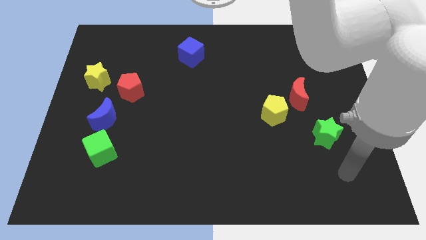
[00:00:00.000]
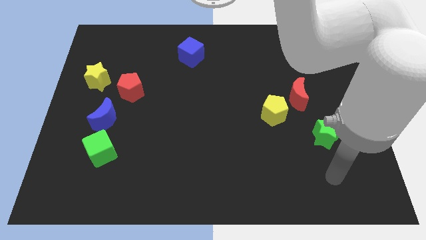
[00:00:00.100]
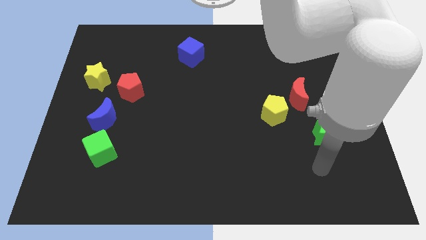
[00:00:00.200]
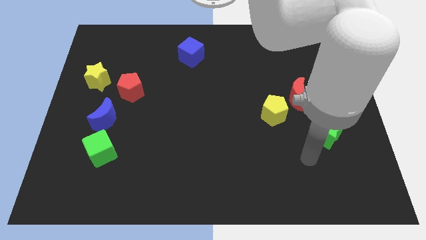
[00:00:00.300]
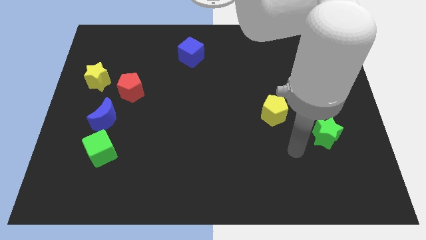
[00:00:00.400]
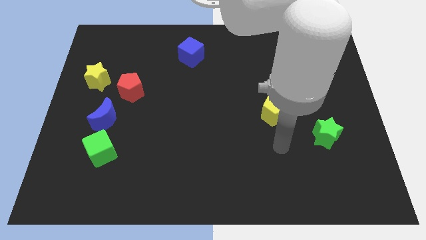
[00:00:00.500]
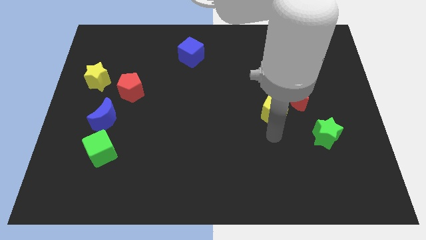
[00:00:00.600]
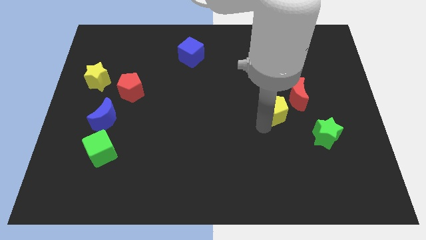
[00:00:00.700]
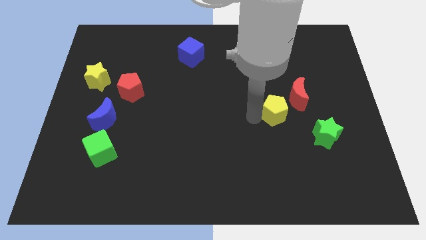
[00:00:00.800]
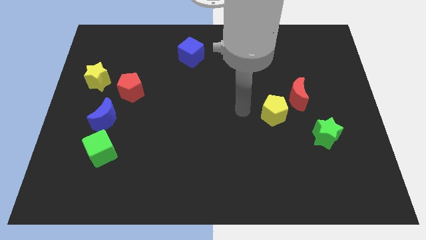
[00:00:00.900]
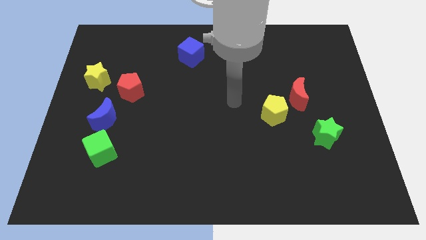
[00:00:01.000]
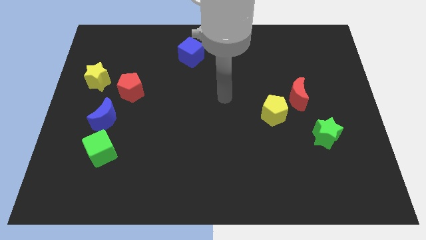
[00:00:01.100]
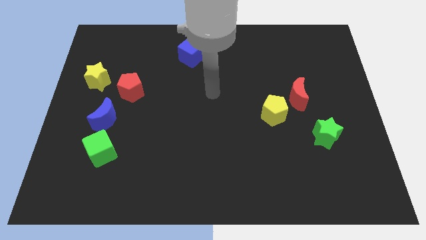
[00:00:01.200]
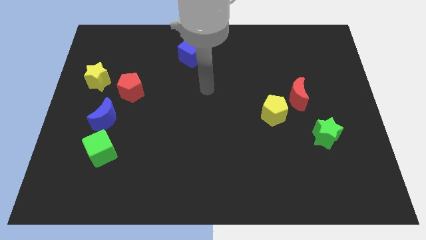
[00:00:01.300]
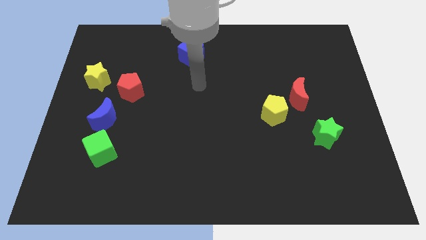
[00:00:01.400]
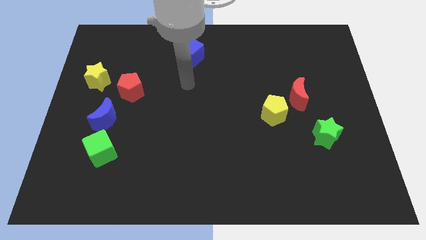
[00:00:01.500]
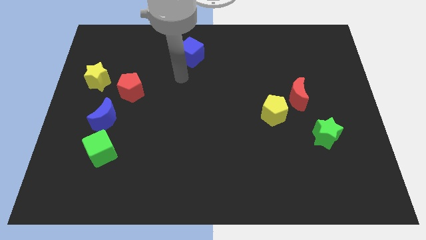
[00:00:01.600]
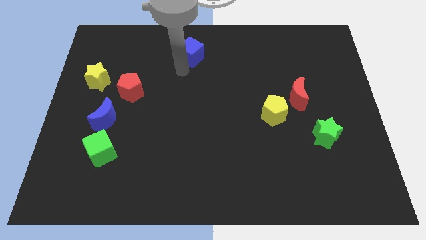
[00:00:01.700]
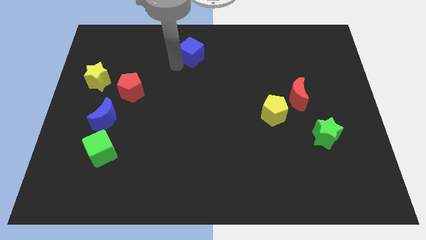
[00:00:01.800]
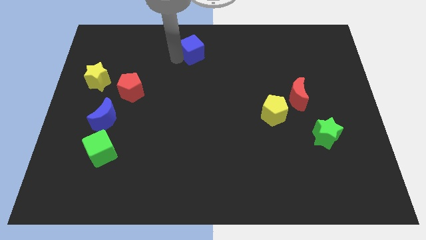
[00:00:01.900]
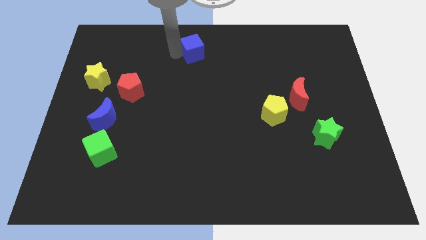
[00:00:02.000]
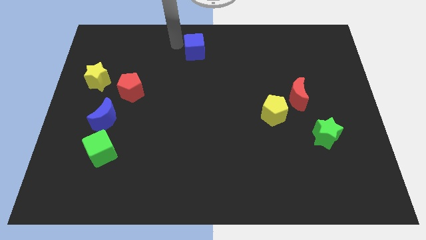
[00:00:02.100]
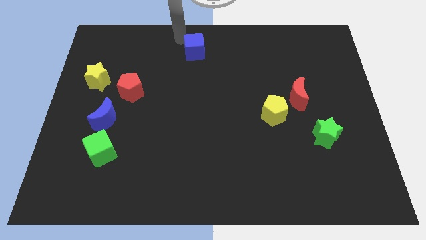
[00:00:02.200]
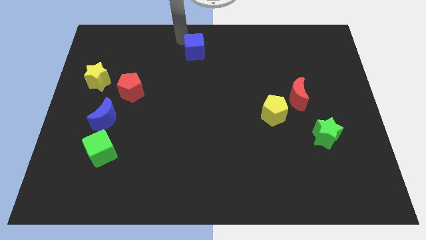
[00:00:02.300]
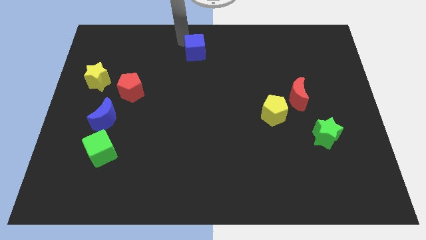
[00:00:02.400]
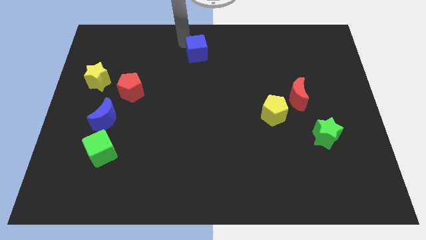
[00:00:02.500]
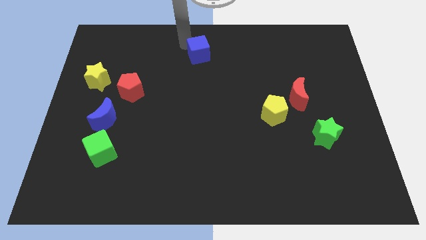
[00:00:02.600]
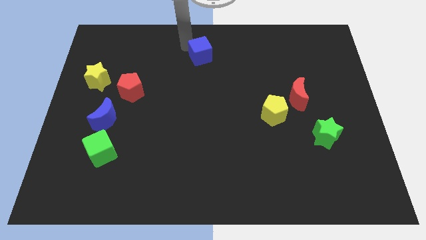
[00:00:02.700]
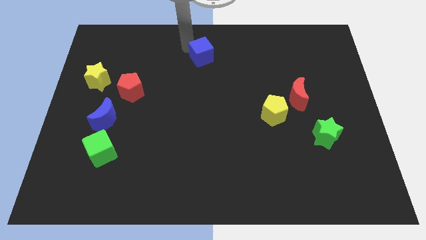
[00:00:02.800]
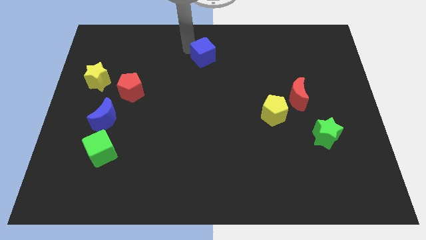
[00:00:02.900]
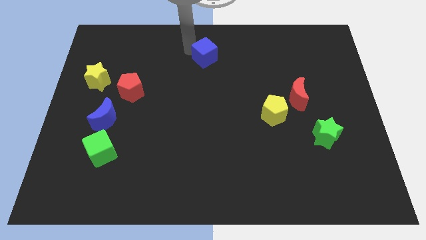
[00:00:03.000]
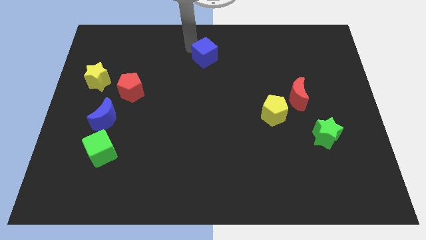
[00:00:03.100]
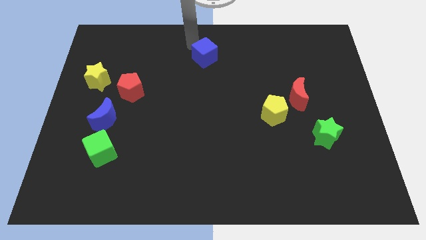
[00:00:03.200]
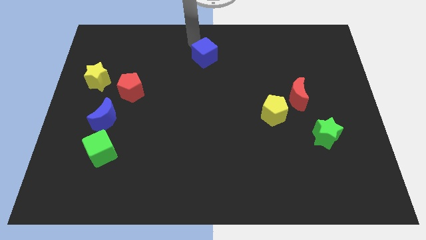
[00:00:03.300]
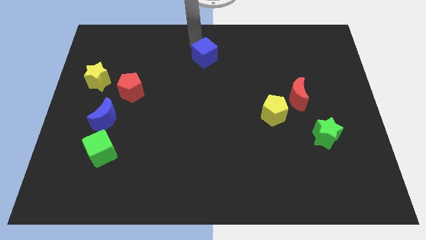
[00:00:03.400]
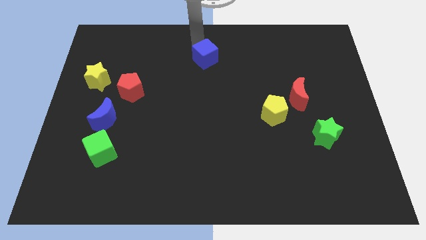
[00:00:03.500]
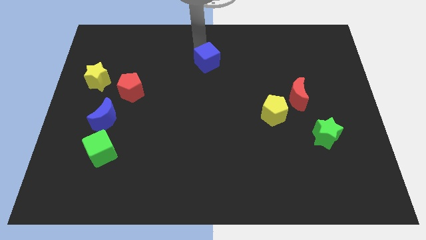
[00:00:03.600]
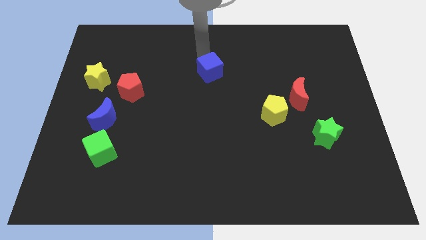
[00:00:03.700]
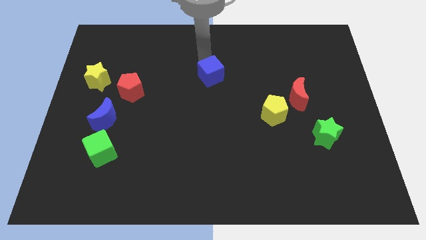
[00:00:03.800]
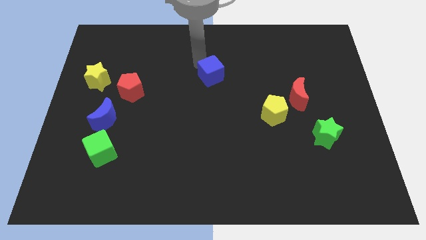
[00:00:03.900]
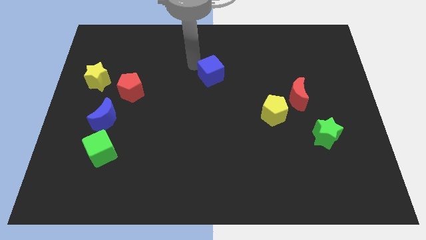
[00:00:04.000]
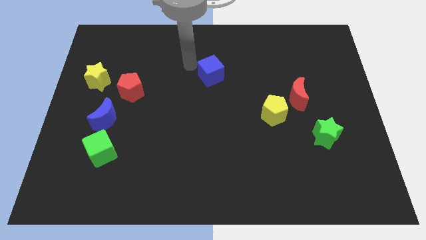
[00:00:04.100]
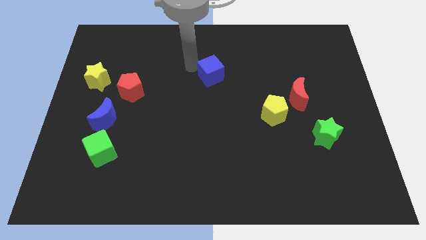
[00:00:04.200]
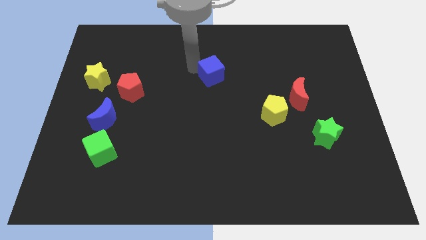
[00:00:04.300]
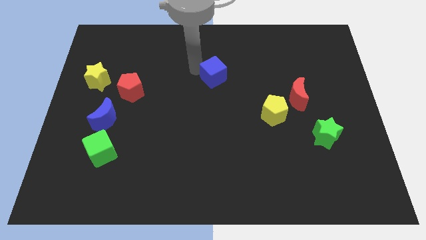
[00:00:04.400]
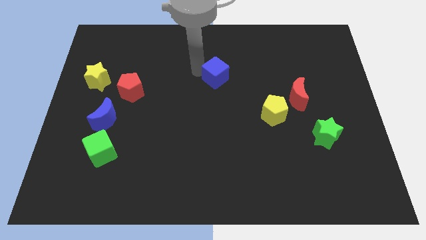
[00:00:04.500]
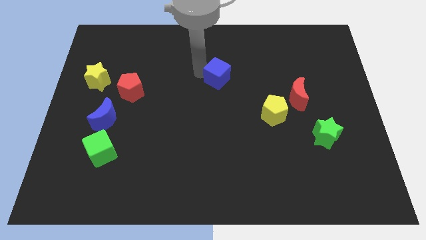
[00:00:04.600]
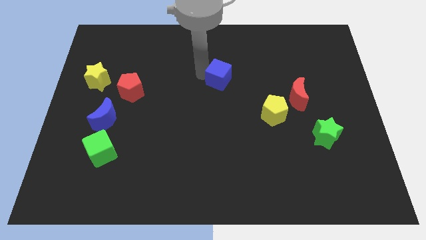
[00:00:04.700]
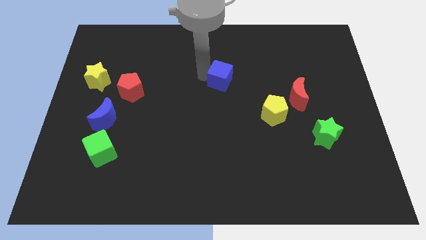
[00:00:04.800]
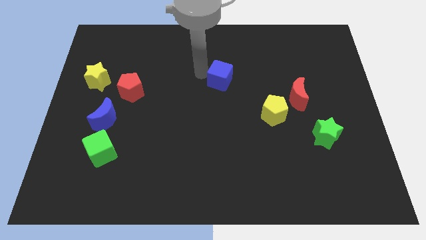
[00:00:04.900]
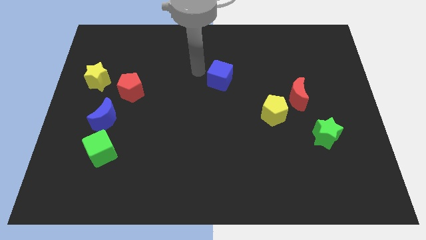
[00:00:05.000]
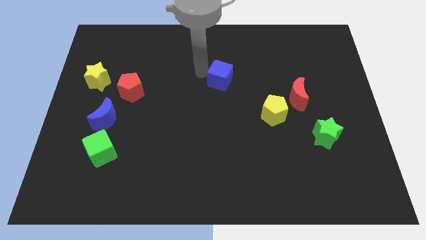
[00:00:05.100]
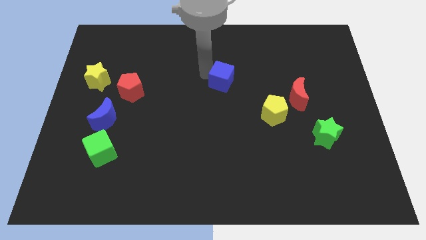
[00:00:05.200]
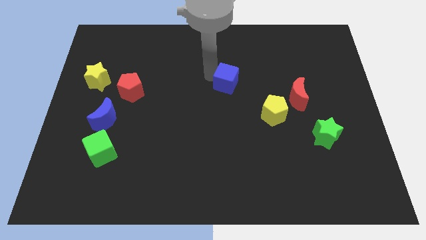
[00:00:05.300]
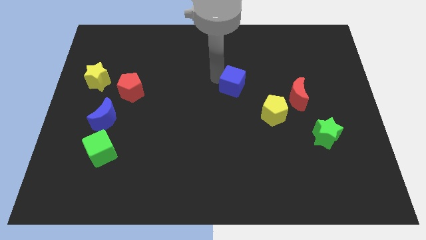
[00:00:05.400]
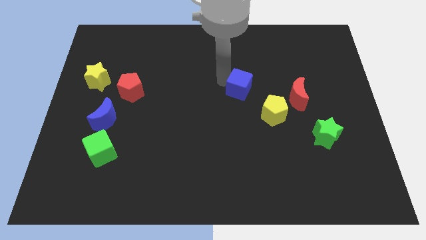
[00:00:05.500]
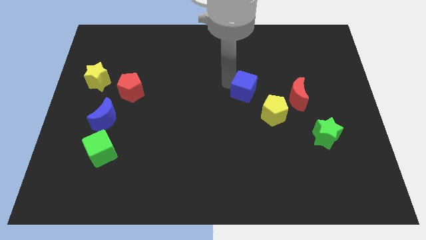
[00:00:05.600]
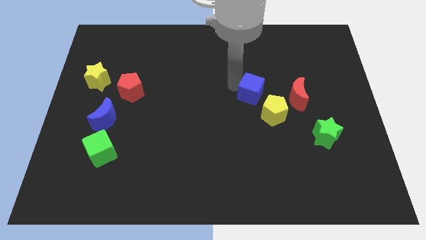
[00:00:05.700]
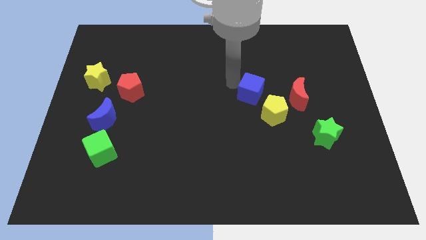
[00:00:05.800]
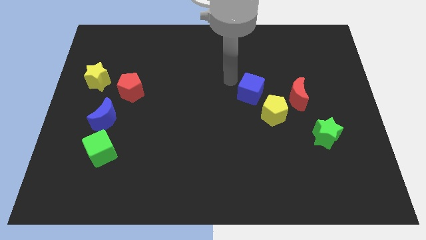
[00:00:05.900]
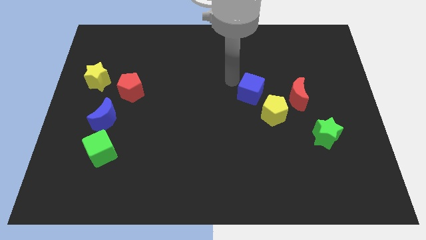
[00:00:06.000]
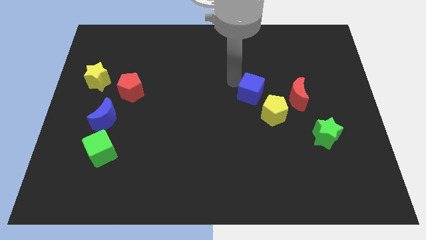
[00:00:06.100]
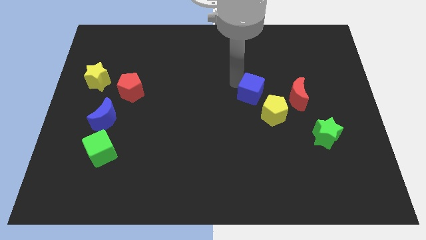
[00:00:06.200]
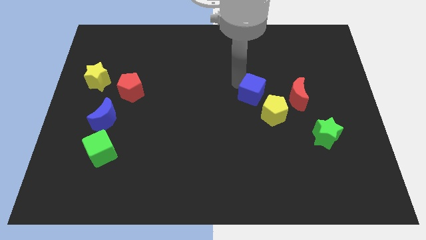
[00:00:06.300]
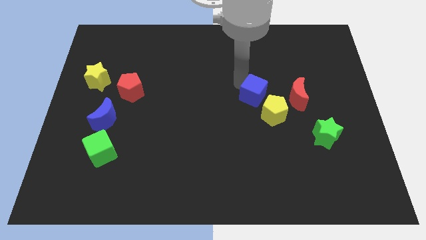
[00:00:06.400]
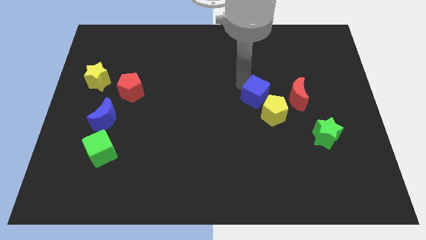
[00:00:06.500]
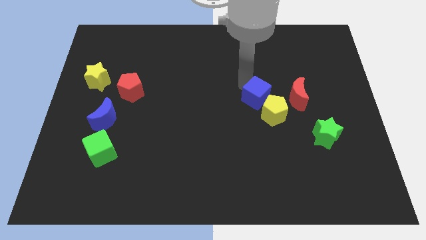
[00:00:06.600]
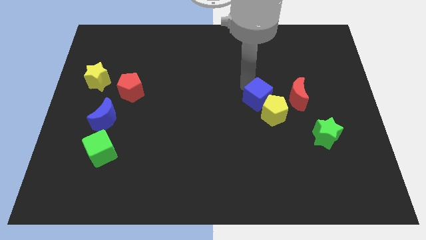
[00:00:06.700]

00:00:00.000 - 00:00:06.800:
put the blue cube to the yellow pentagon
